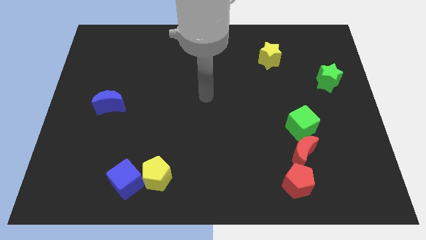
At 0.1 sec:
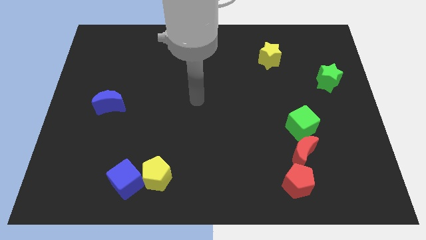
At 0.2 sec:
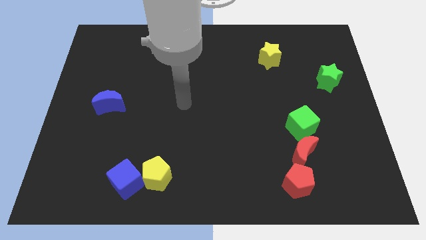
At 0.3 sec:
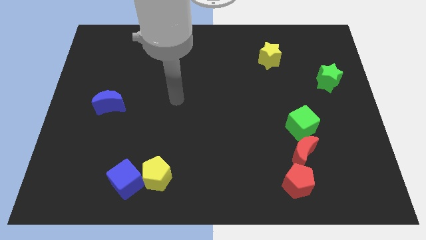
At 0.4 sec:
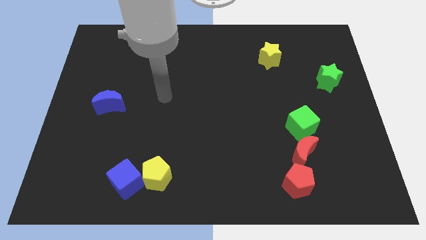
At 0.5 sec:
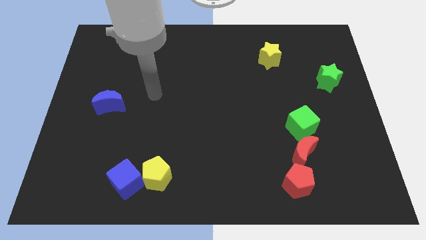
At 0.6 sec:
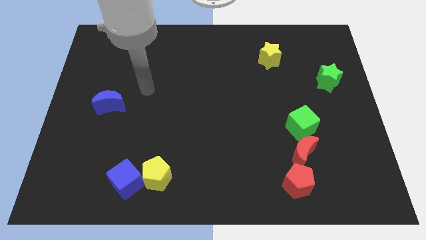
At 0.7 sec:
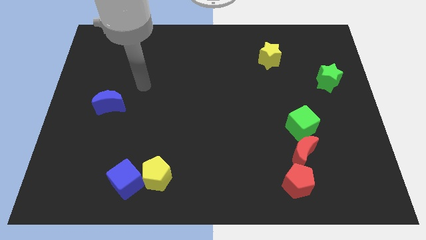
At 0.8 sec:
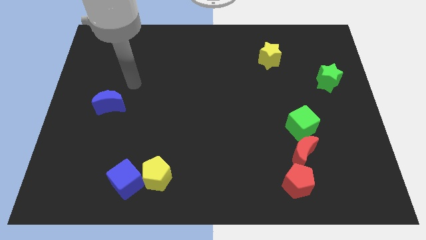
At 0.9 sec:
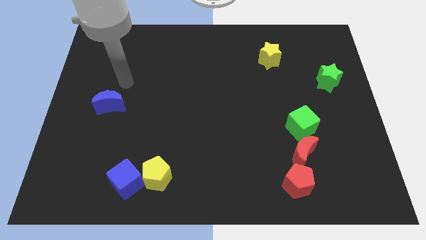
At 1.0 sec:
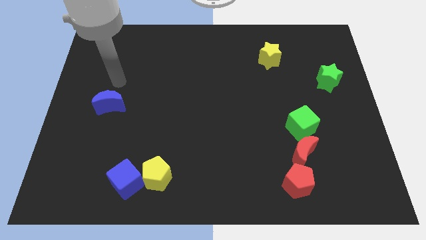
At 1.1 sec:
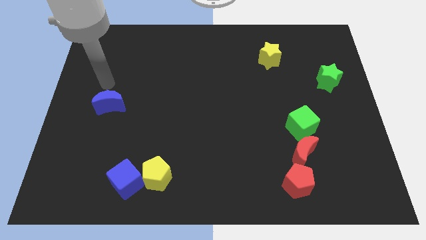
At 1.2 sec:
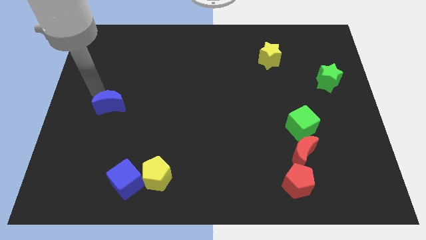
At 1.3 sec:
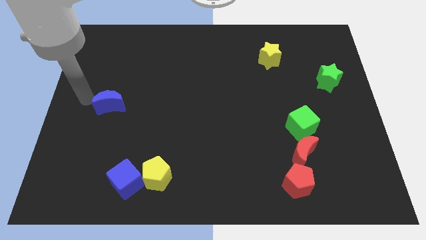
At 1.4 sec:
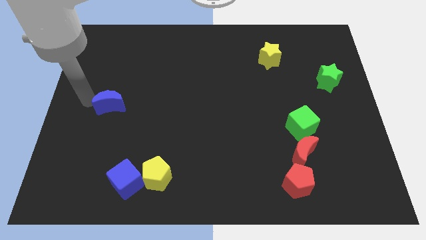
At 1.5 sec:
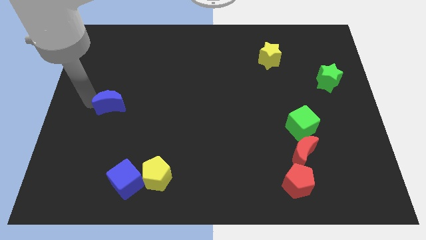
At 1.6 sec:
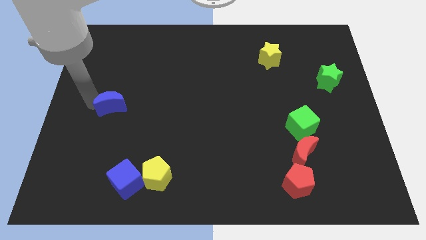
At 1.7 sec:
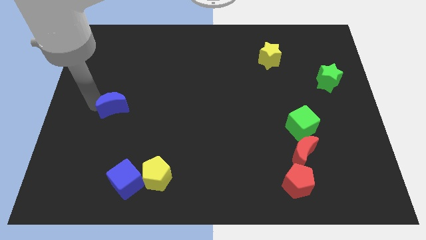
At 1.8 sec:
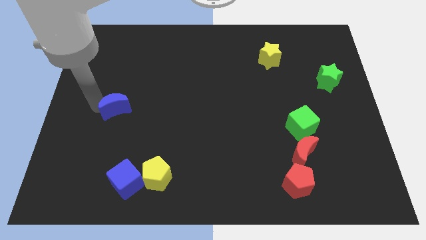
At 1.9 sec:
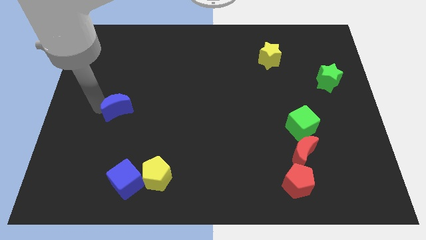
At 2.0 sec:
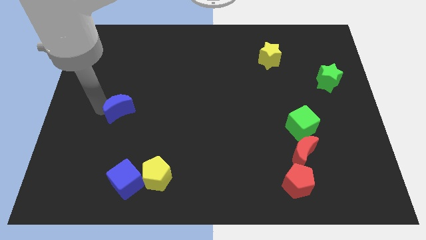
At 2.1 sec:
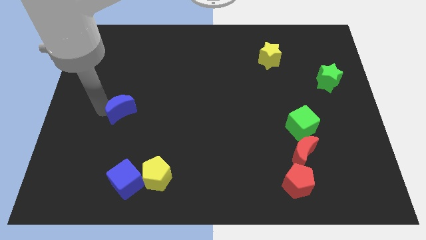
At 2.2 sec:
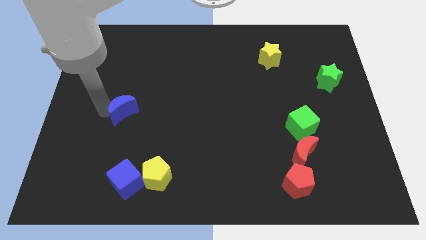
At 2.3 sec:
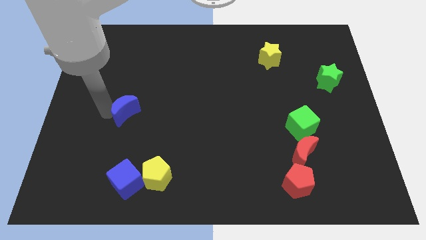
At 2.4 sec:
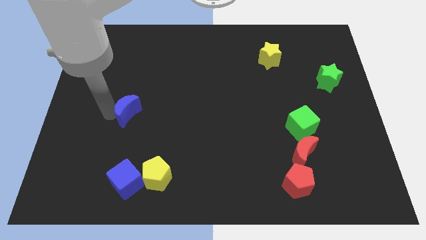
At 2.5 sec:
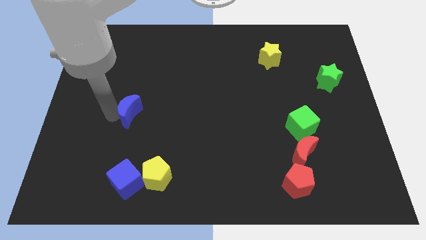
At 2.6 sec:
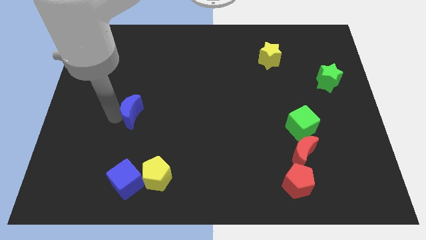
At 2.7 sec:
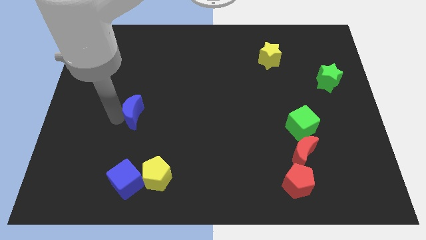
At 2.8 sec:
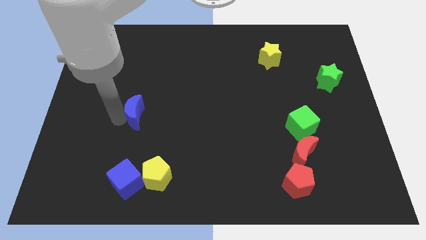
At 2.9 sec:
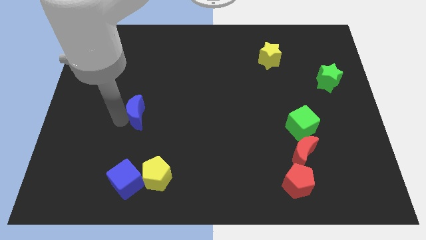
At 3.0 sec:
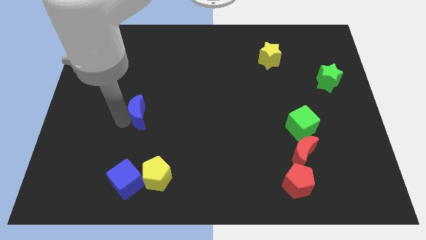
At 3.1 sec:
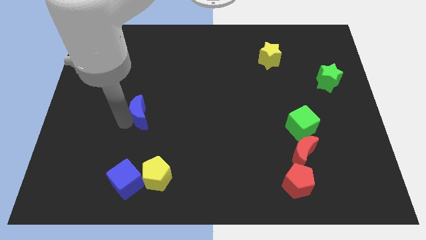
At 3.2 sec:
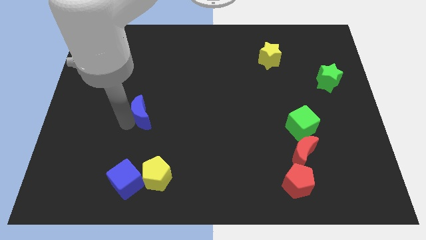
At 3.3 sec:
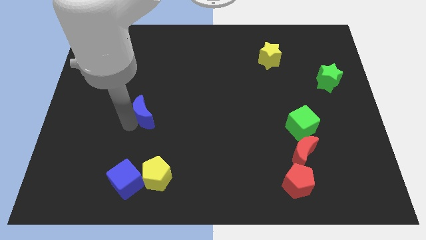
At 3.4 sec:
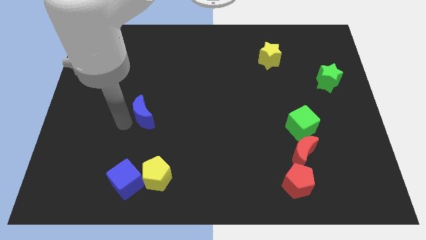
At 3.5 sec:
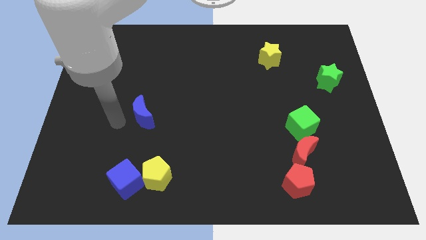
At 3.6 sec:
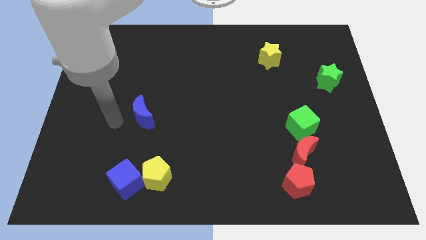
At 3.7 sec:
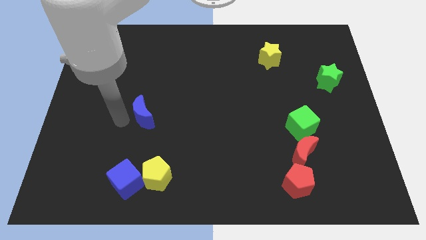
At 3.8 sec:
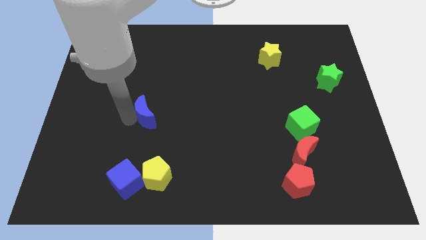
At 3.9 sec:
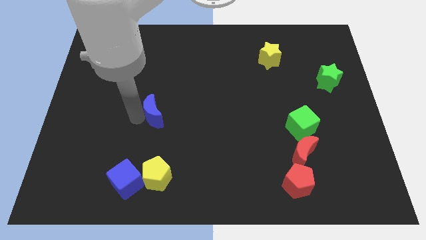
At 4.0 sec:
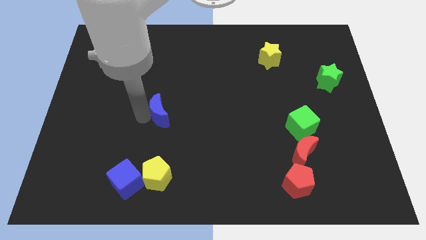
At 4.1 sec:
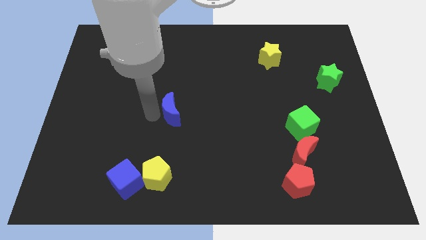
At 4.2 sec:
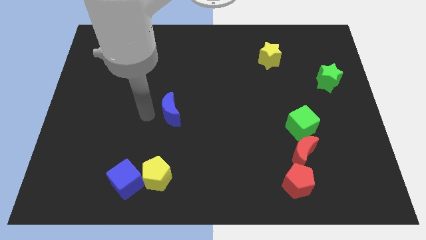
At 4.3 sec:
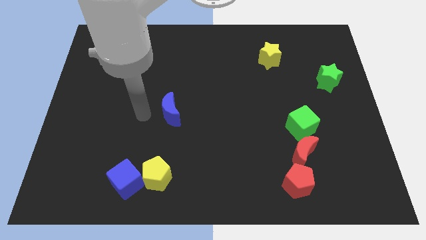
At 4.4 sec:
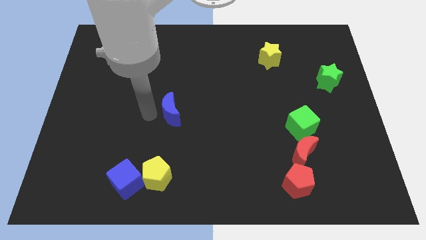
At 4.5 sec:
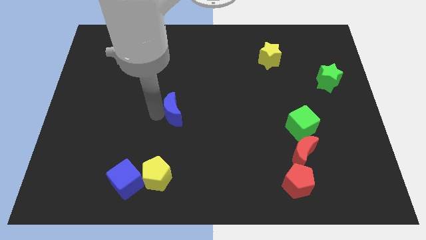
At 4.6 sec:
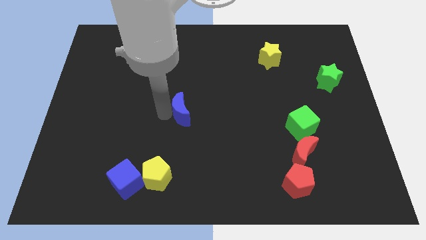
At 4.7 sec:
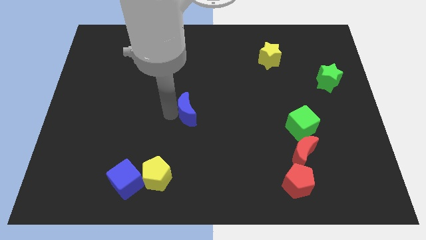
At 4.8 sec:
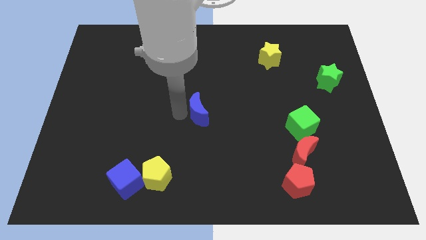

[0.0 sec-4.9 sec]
move the blue moon right

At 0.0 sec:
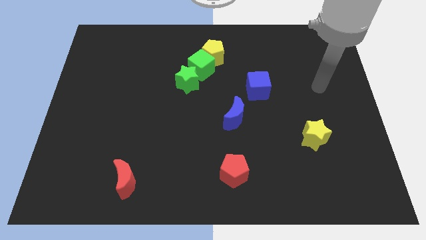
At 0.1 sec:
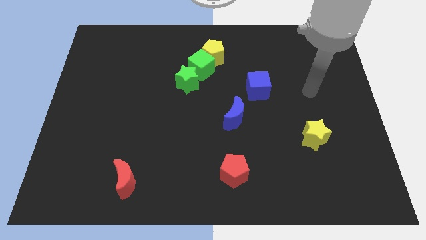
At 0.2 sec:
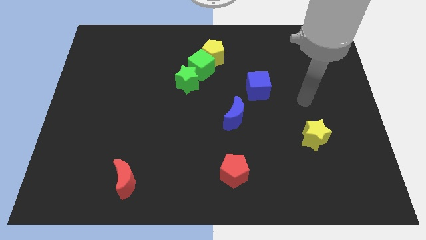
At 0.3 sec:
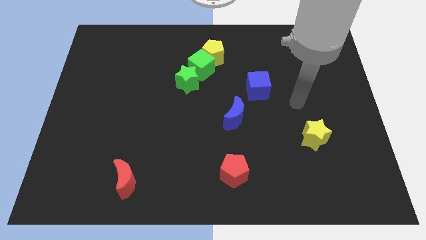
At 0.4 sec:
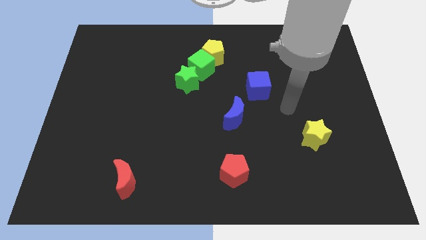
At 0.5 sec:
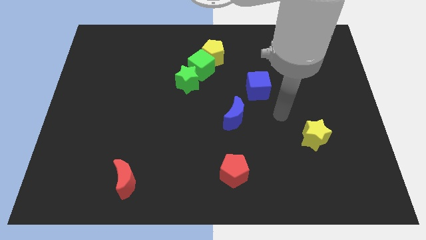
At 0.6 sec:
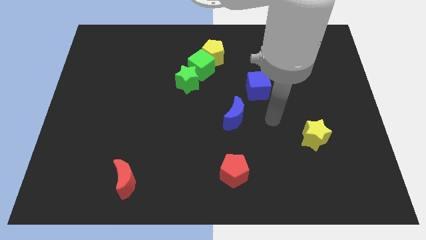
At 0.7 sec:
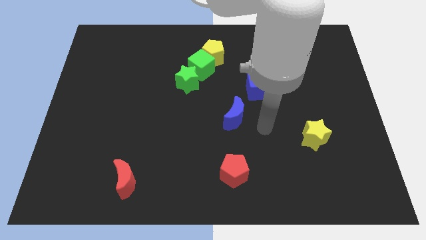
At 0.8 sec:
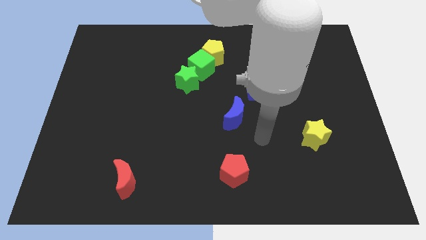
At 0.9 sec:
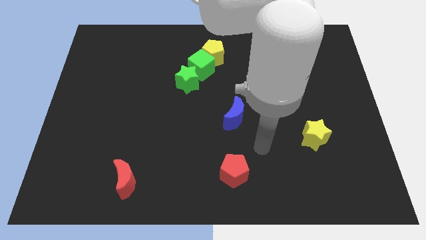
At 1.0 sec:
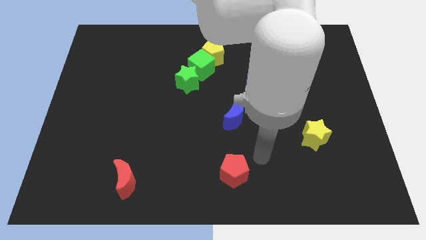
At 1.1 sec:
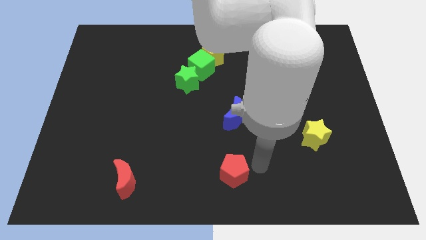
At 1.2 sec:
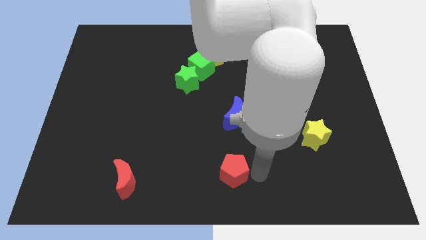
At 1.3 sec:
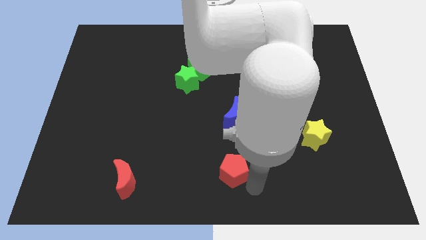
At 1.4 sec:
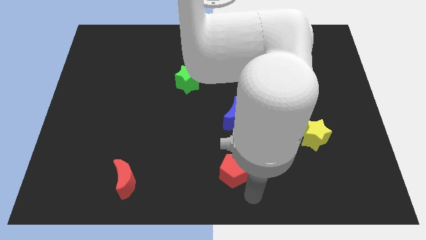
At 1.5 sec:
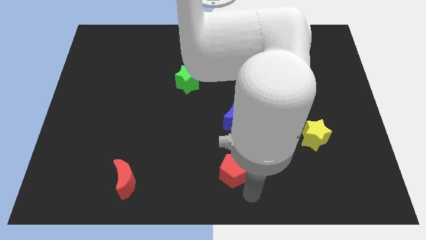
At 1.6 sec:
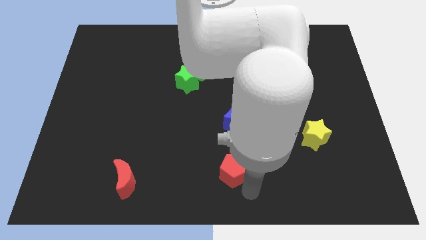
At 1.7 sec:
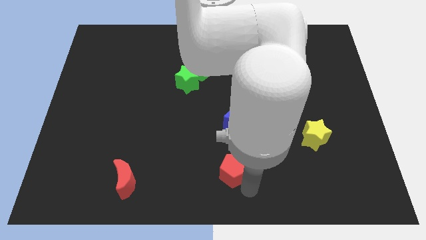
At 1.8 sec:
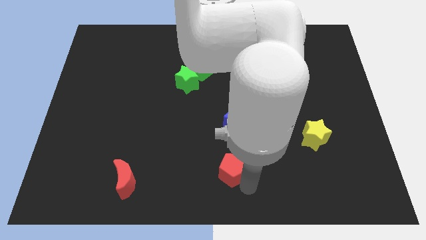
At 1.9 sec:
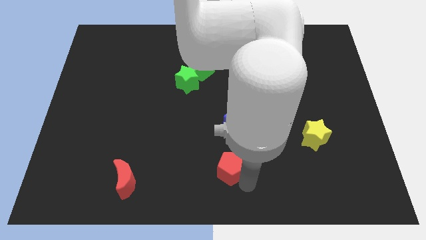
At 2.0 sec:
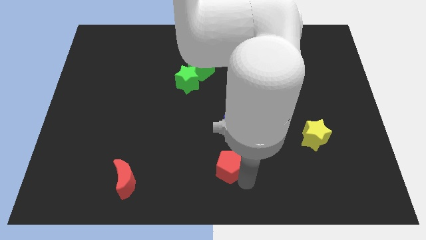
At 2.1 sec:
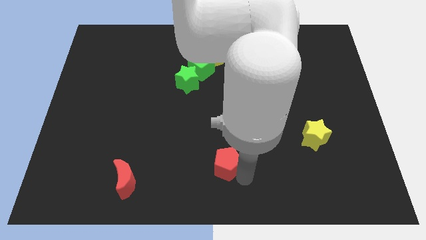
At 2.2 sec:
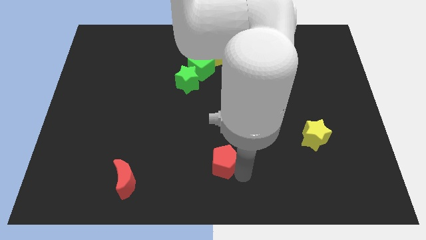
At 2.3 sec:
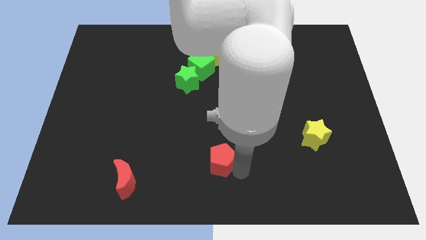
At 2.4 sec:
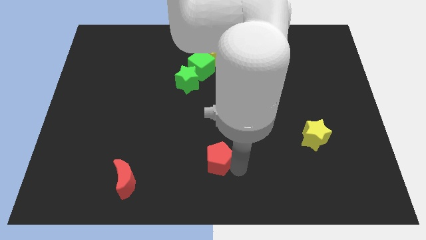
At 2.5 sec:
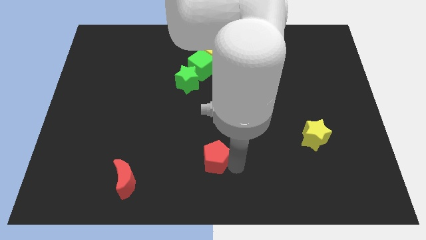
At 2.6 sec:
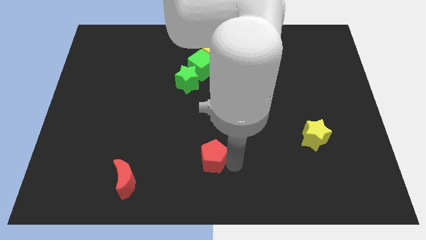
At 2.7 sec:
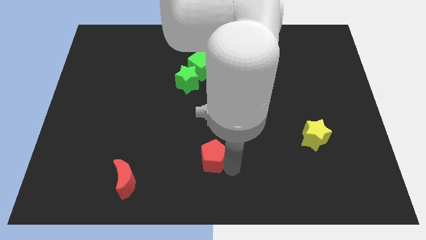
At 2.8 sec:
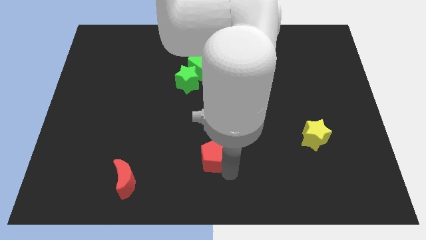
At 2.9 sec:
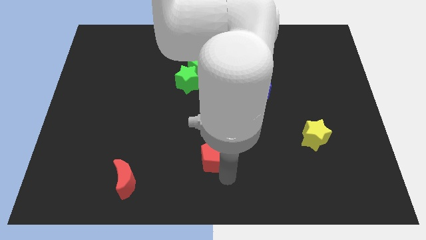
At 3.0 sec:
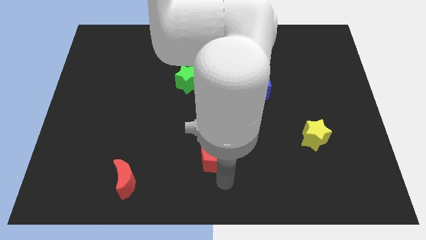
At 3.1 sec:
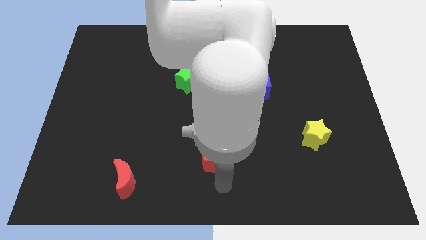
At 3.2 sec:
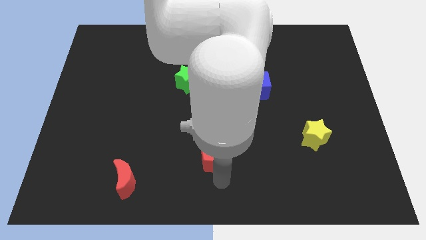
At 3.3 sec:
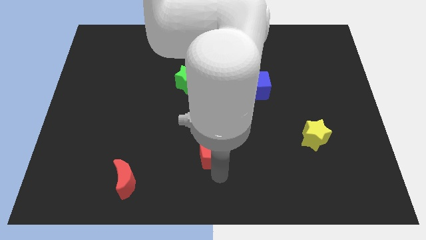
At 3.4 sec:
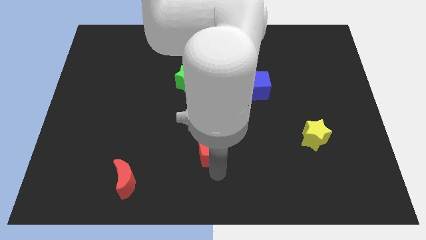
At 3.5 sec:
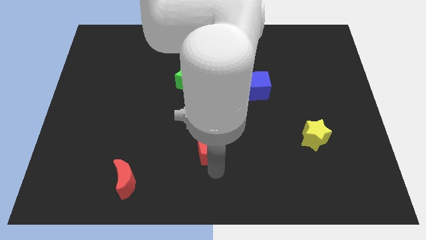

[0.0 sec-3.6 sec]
slightly push the red pentagon up and to the left diagonally
